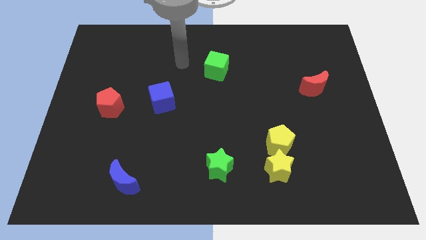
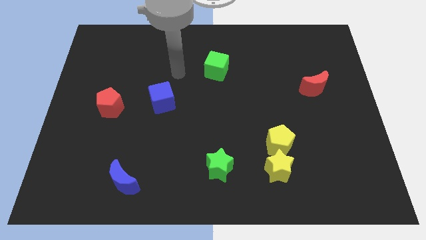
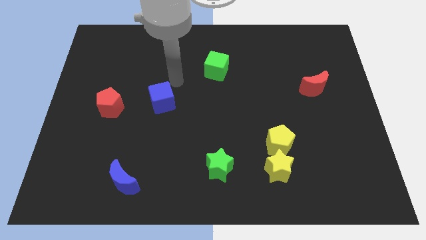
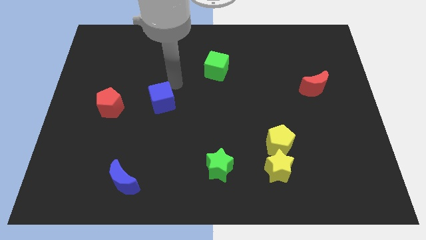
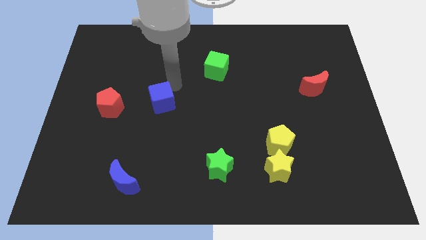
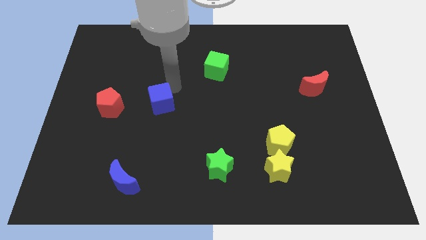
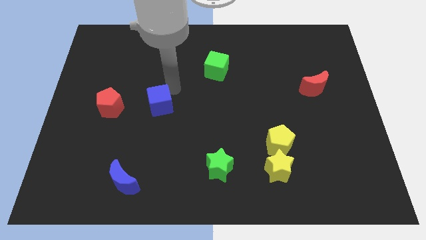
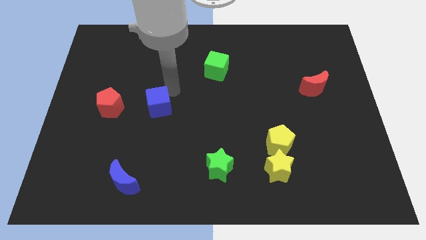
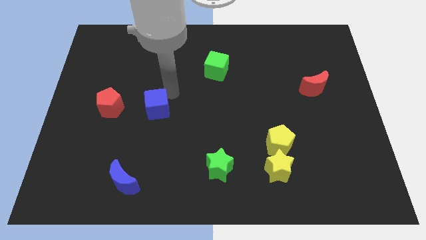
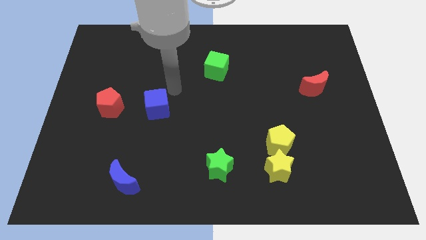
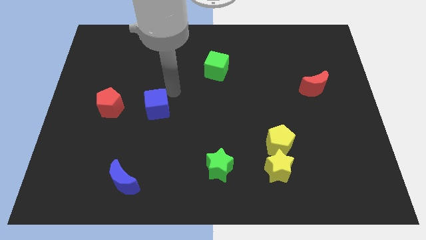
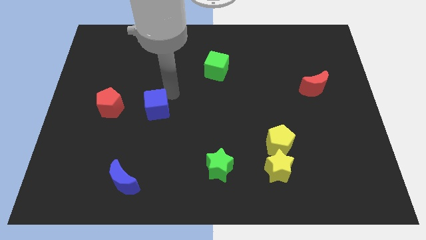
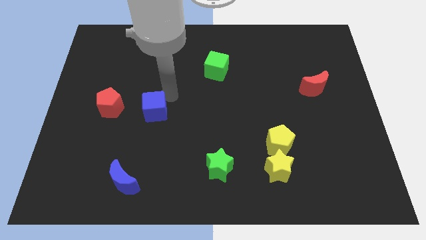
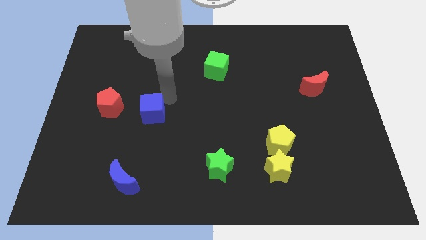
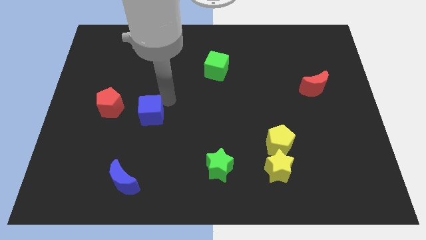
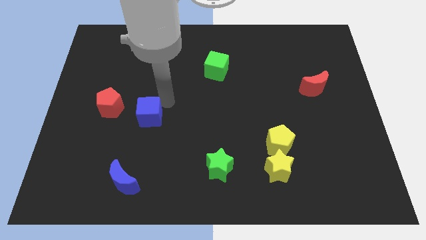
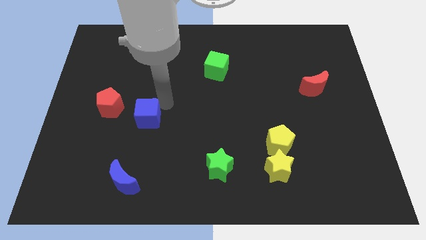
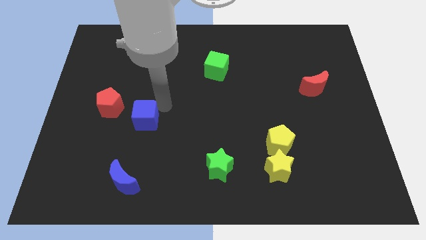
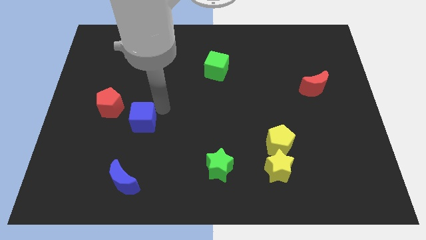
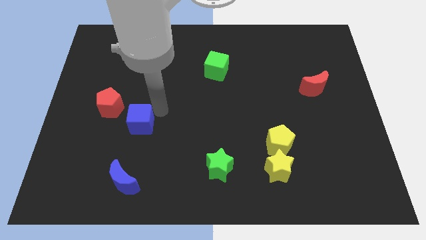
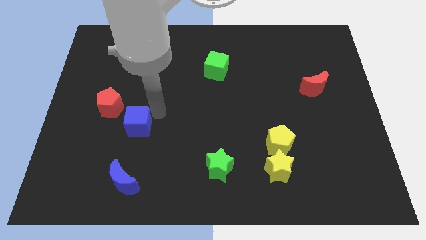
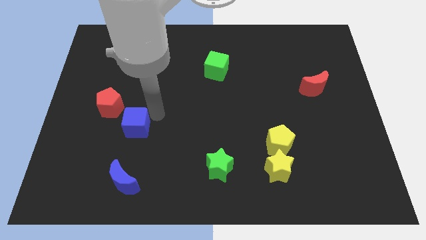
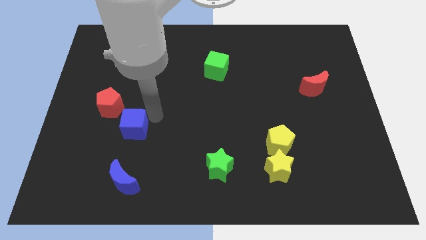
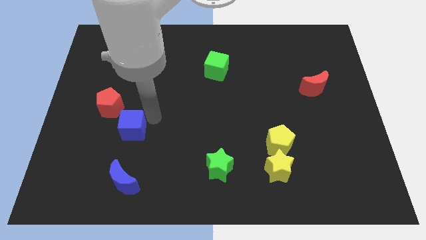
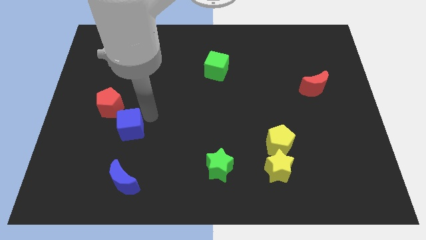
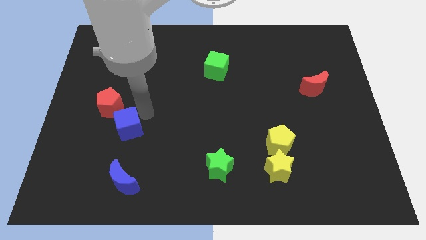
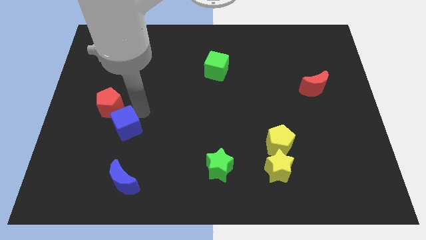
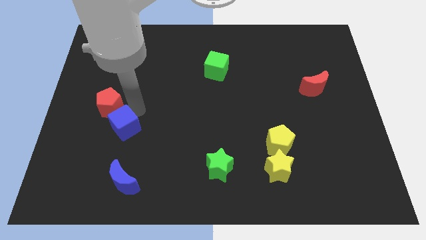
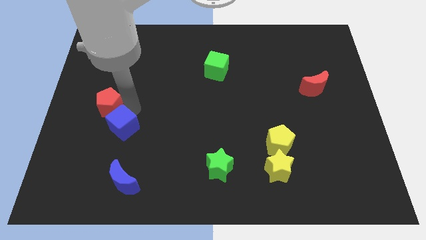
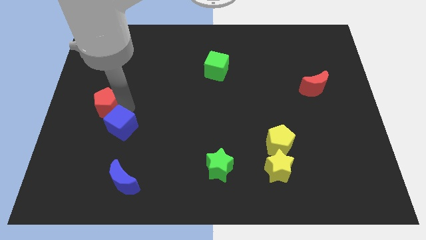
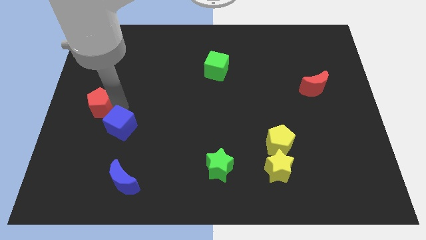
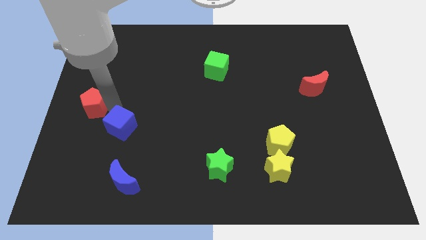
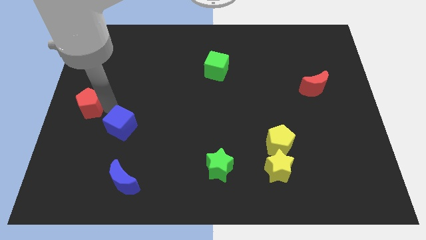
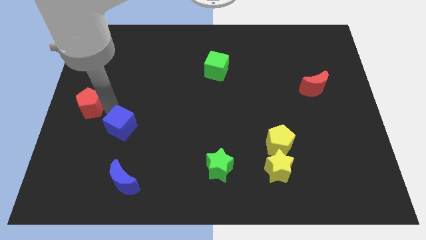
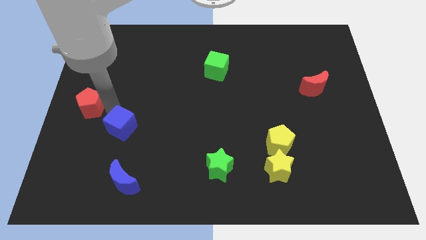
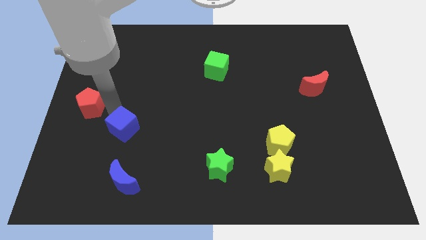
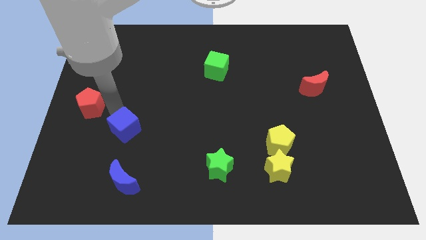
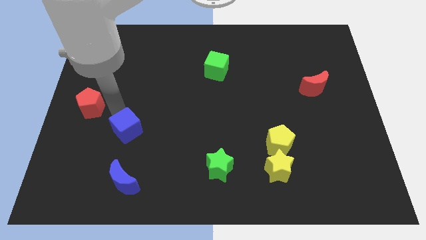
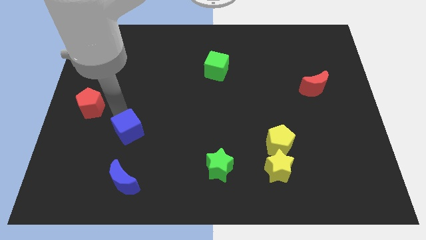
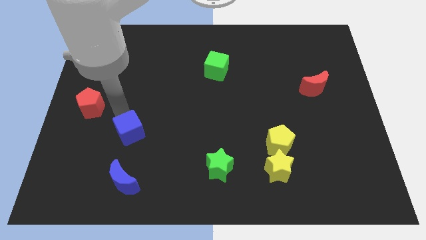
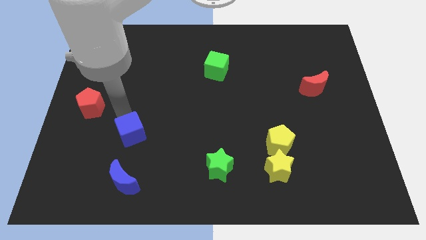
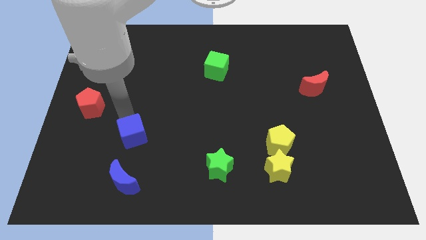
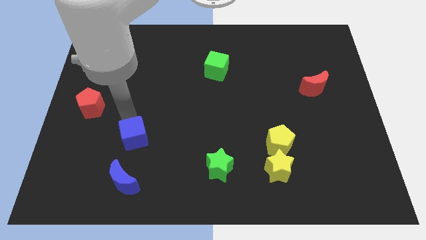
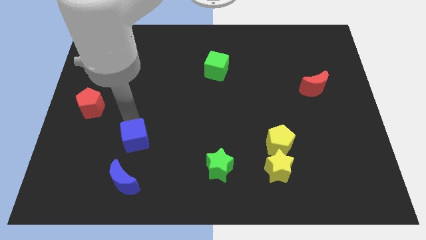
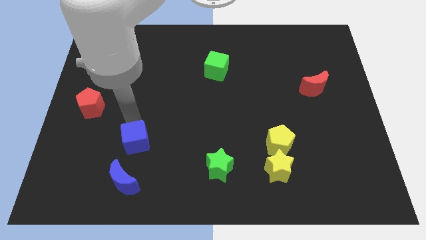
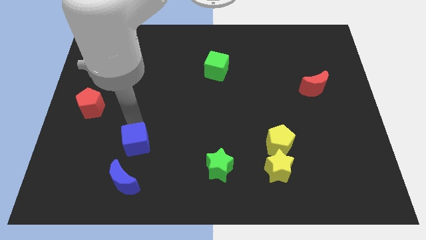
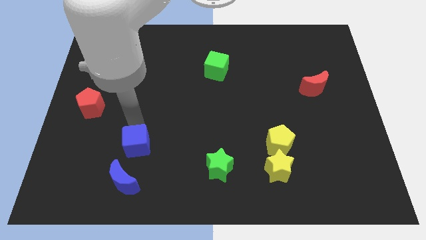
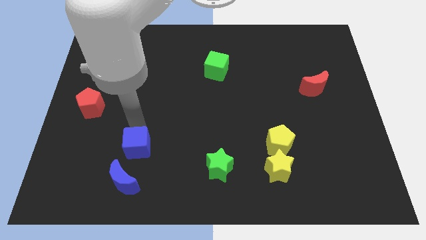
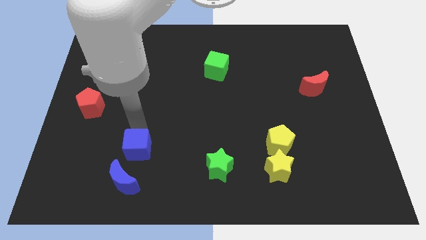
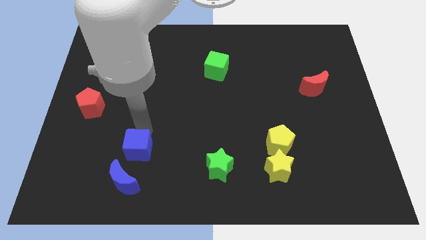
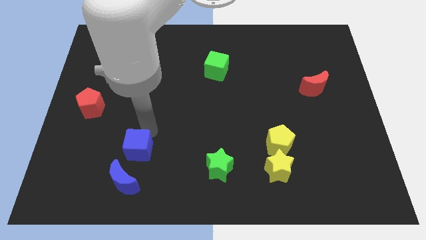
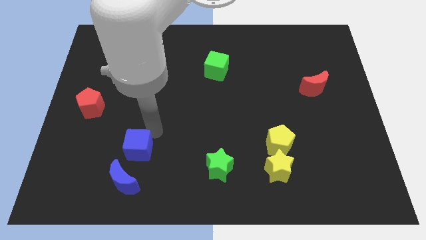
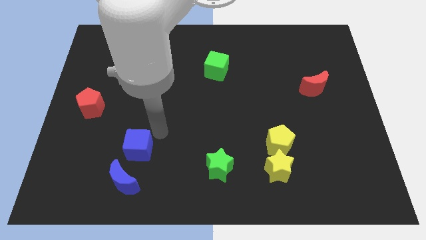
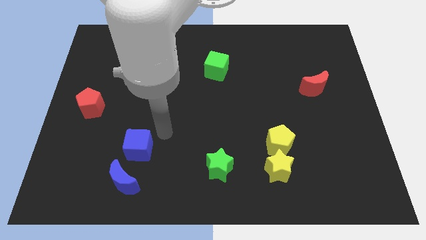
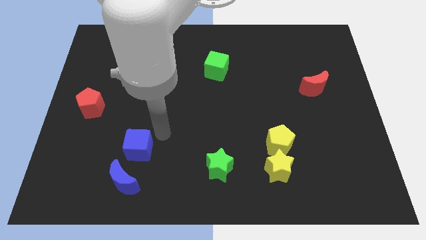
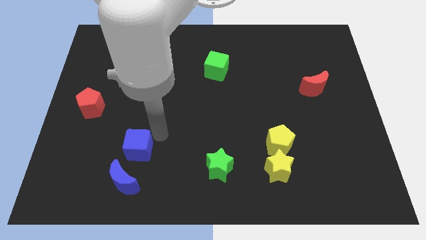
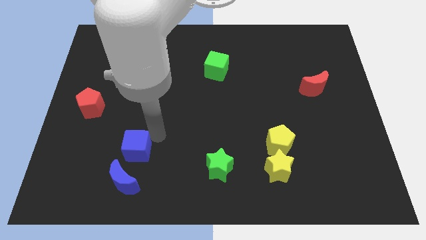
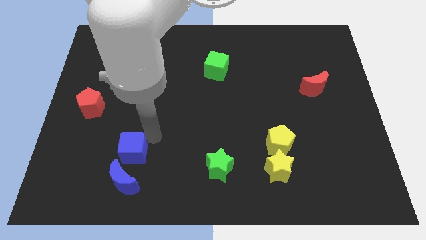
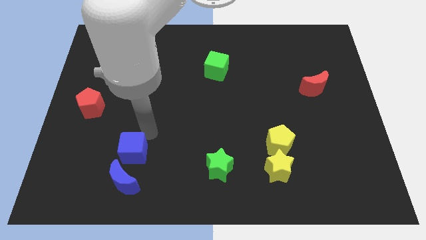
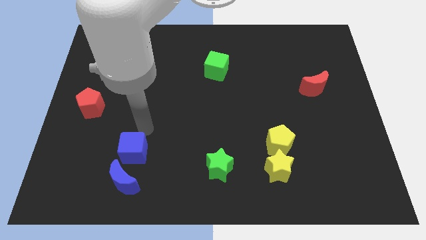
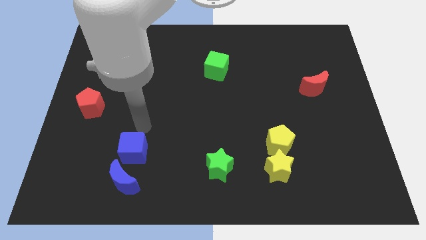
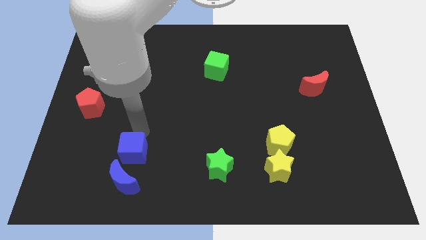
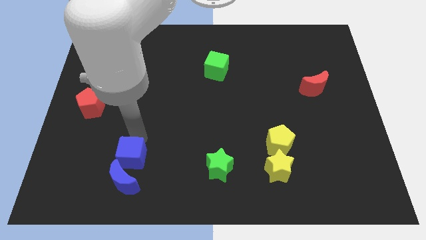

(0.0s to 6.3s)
put the blue cube next to the blue moon

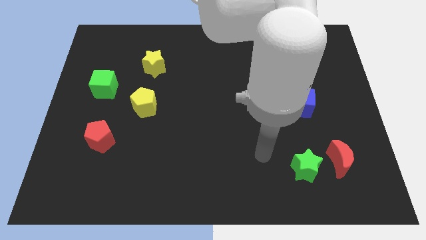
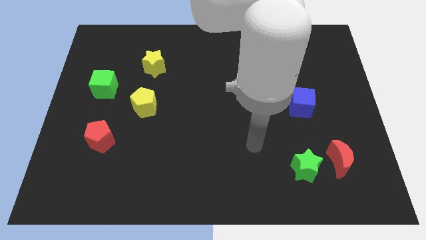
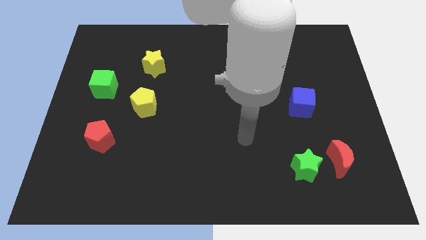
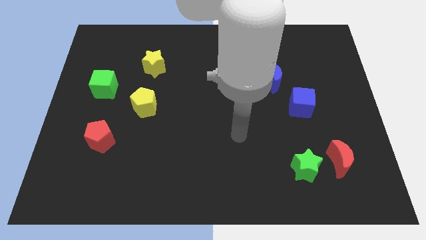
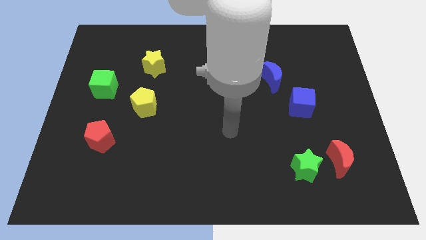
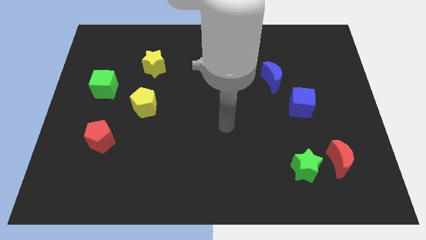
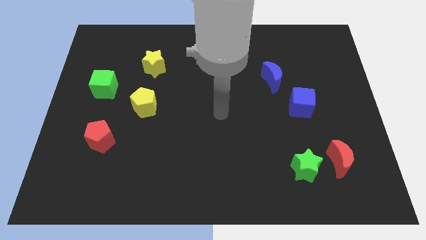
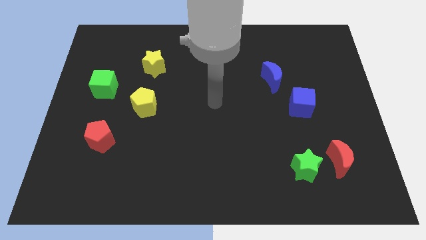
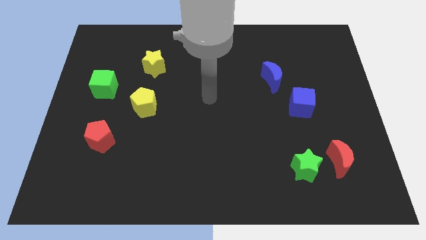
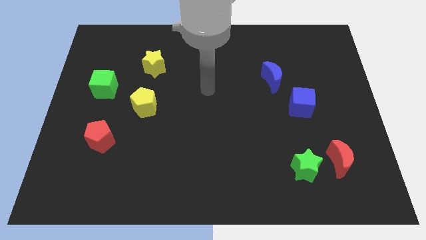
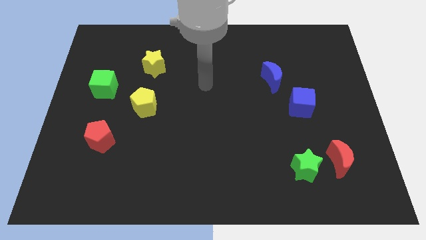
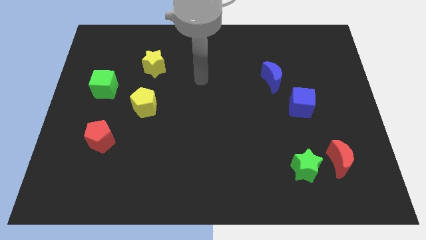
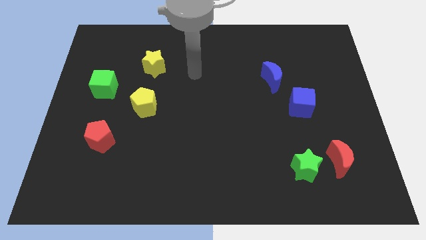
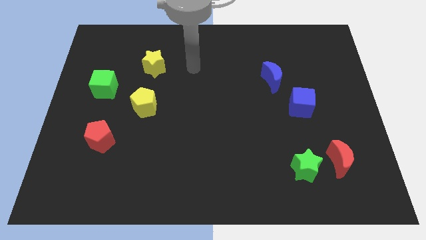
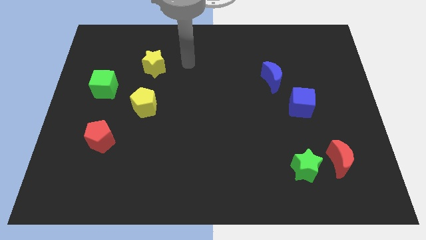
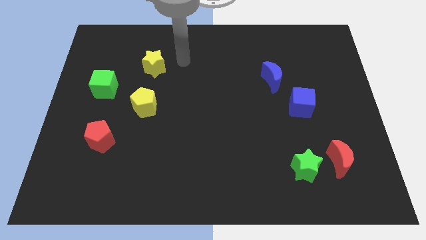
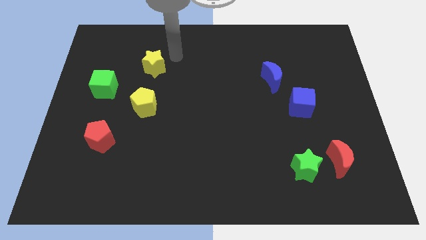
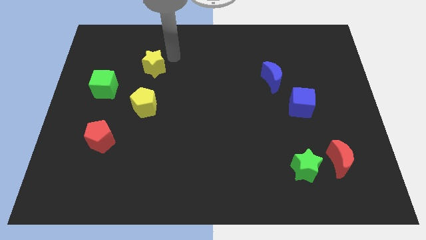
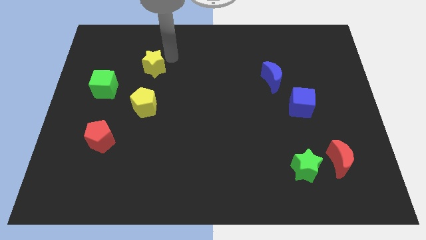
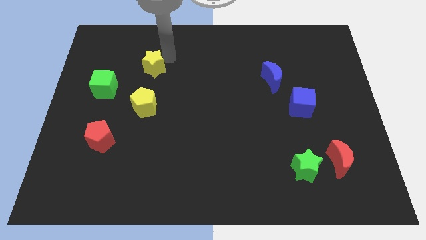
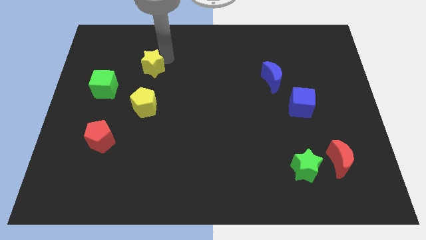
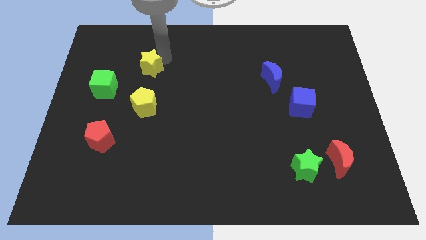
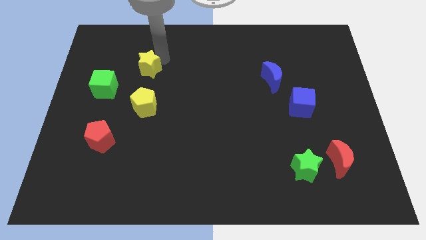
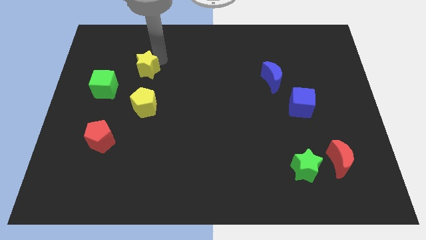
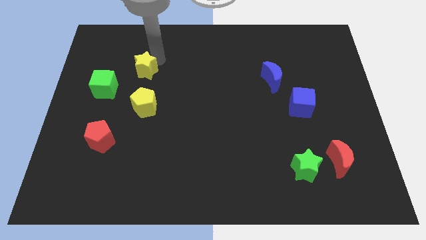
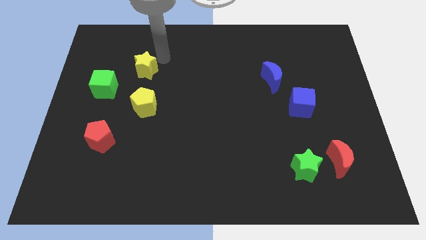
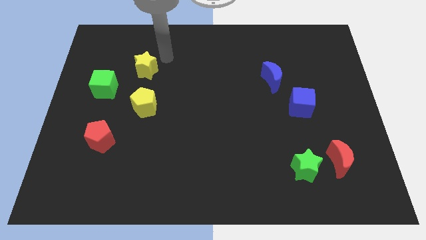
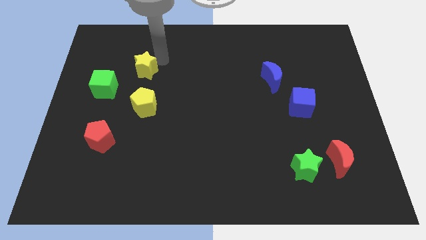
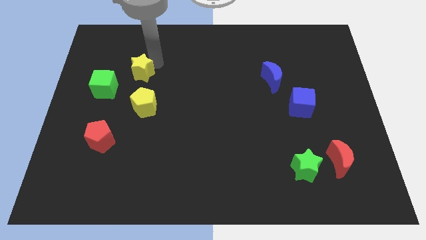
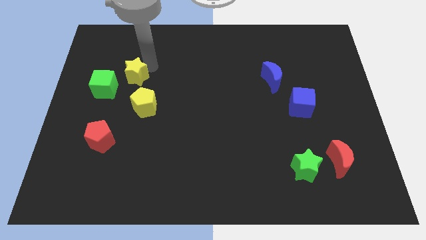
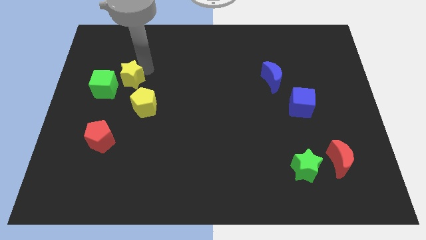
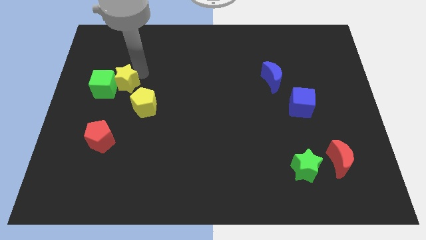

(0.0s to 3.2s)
slide the yellow star towards the green cube
